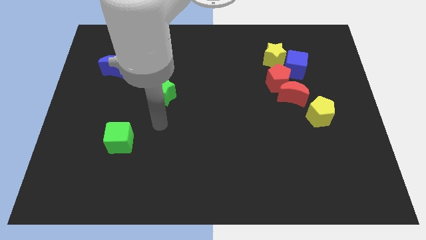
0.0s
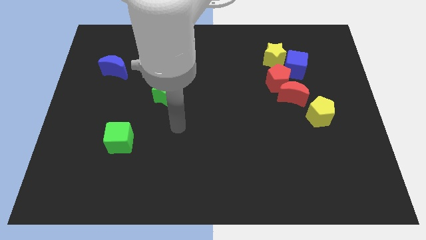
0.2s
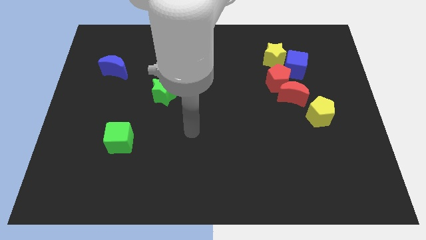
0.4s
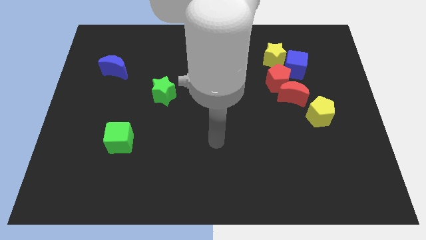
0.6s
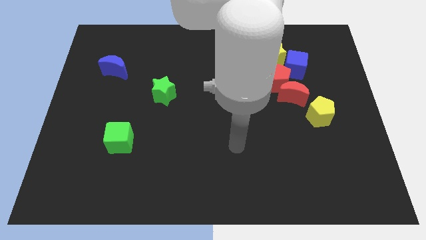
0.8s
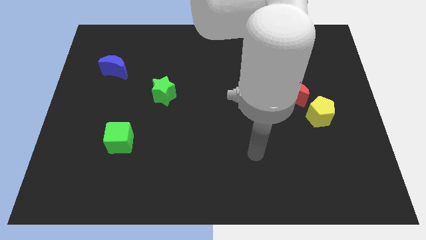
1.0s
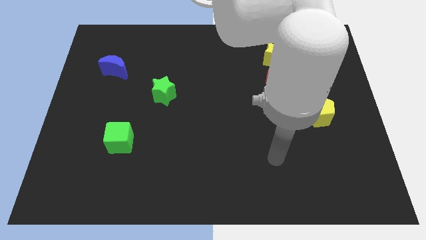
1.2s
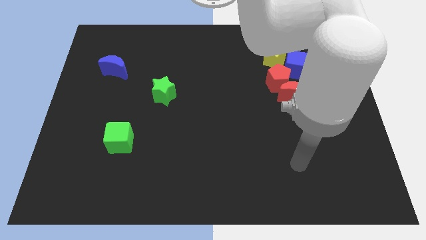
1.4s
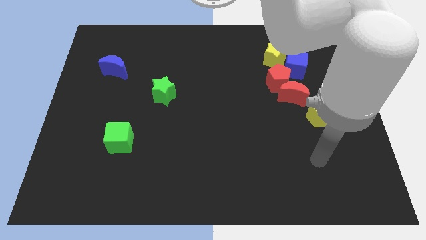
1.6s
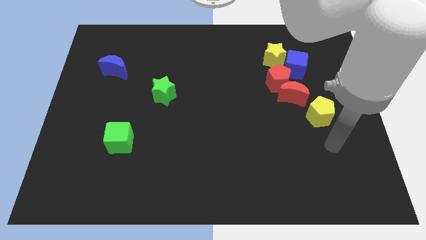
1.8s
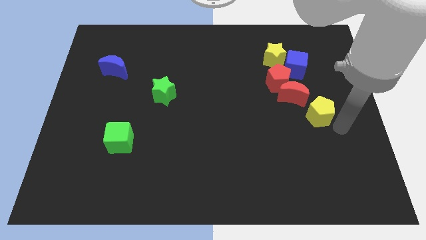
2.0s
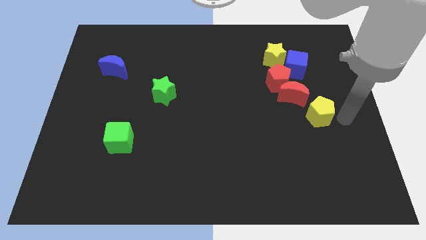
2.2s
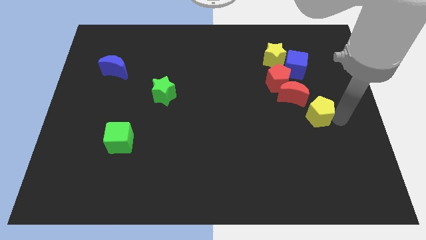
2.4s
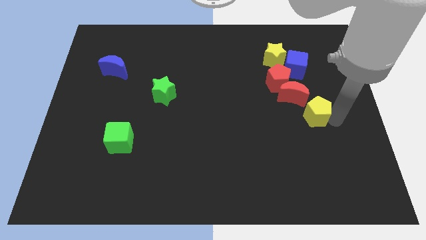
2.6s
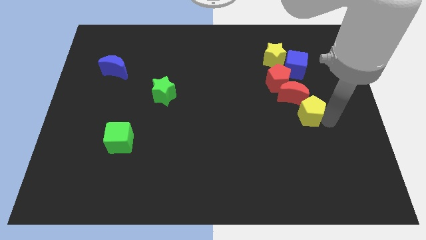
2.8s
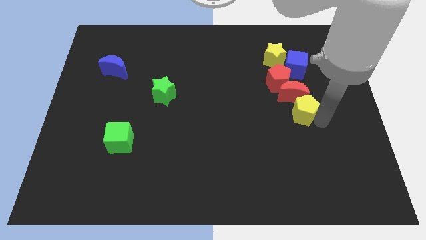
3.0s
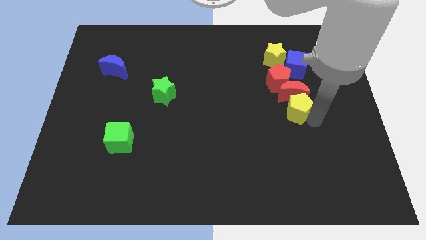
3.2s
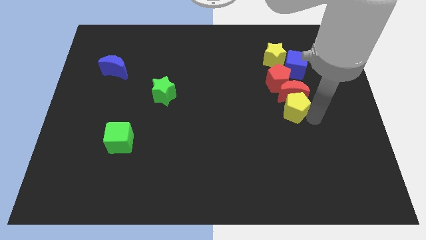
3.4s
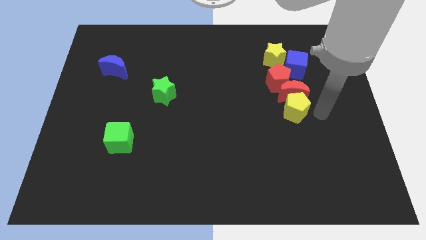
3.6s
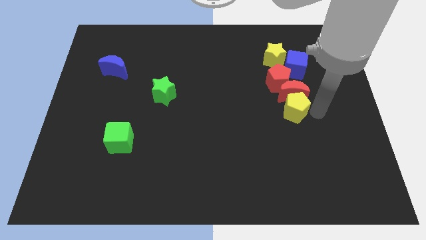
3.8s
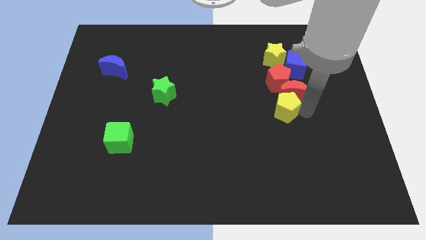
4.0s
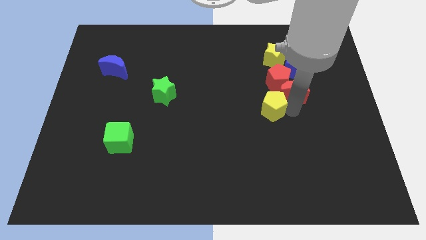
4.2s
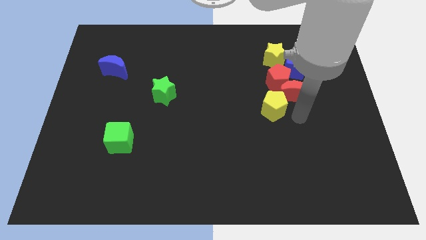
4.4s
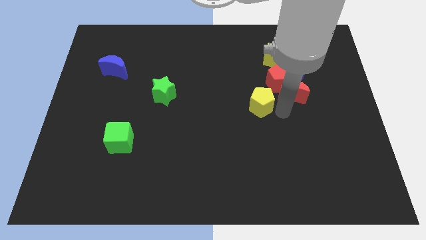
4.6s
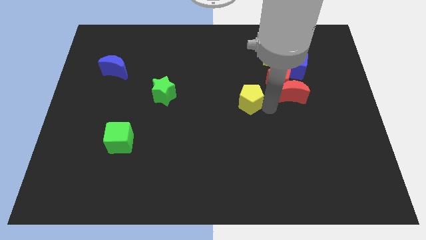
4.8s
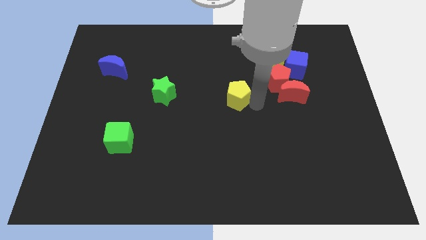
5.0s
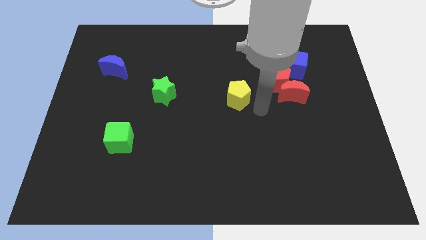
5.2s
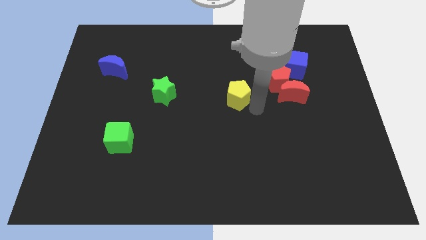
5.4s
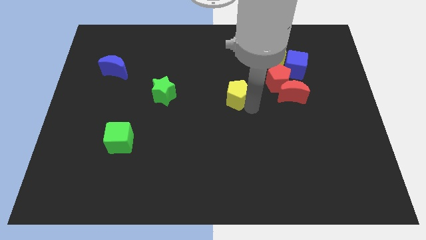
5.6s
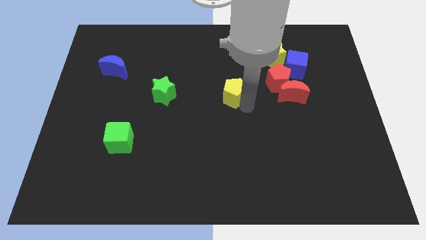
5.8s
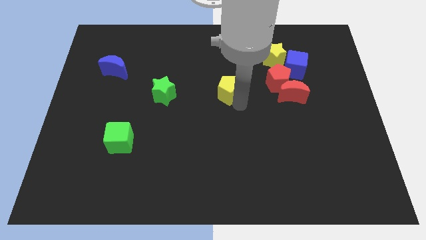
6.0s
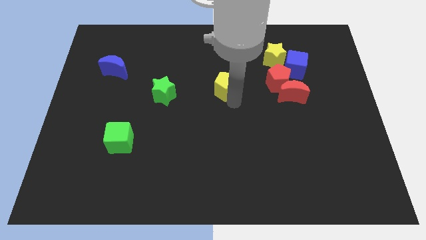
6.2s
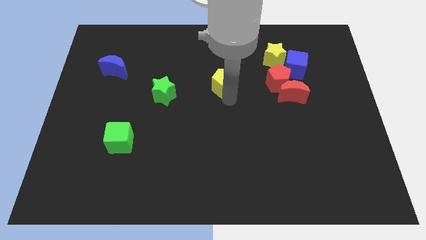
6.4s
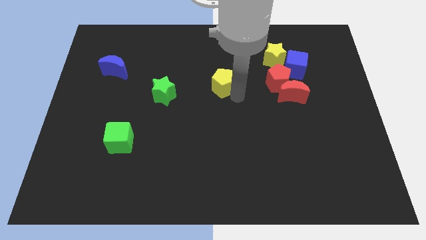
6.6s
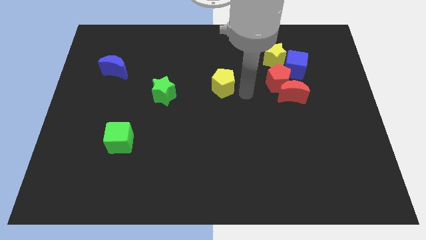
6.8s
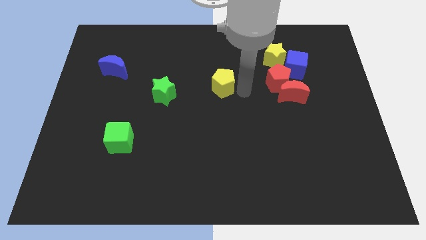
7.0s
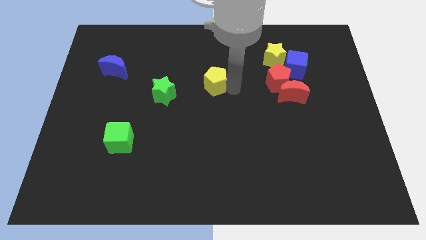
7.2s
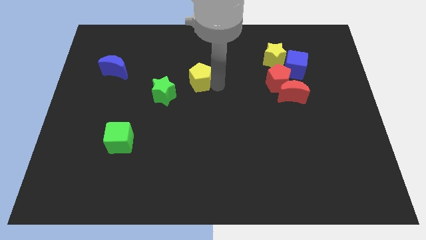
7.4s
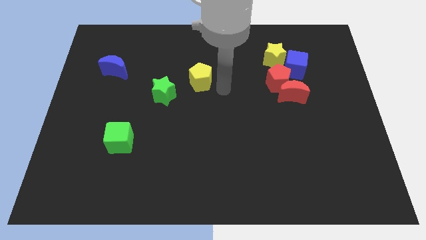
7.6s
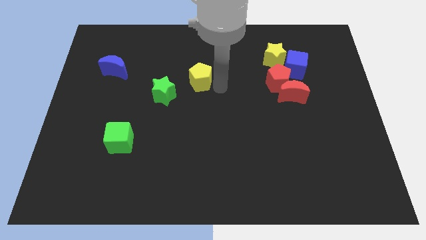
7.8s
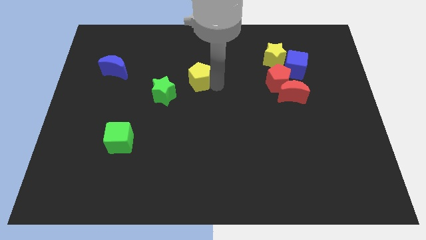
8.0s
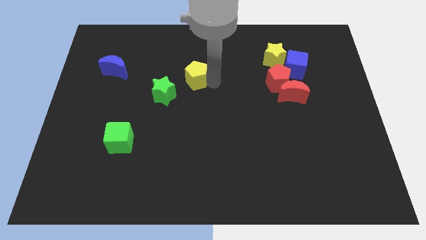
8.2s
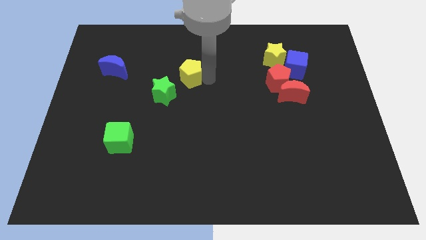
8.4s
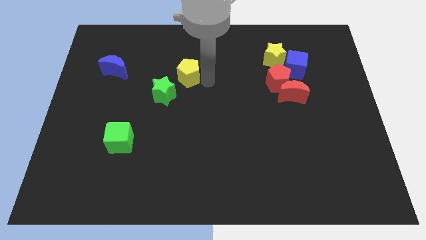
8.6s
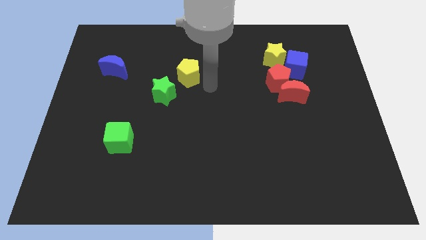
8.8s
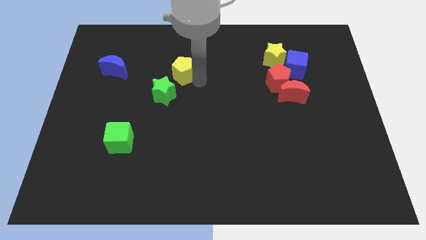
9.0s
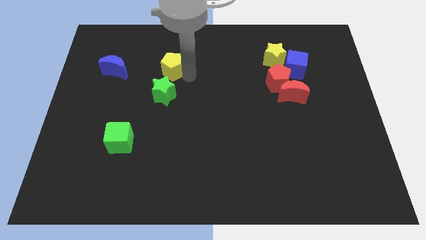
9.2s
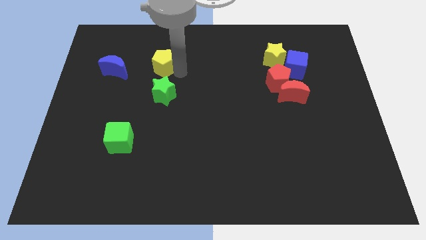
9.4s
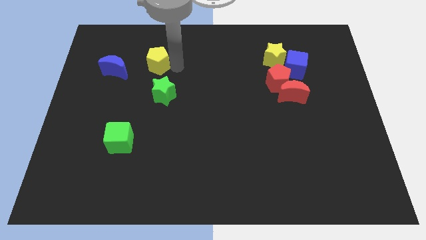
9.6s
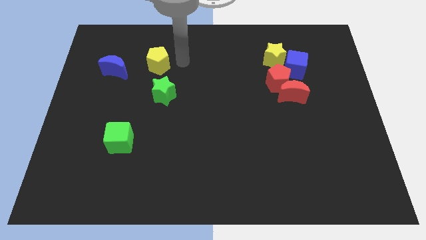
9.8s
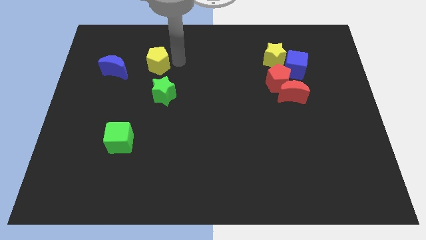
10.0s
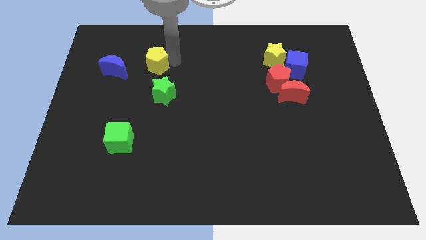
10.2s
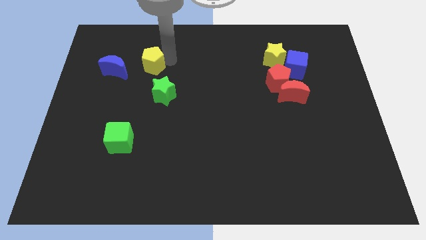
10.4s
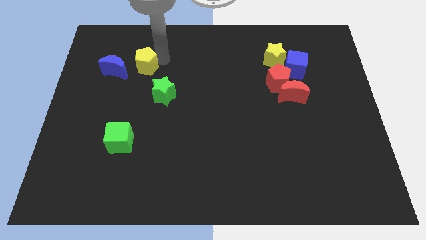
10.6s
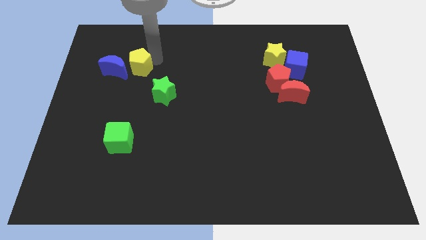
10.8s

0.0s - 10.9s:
move the yellow pentagon to the blue moon

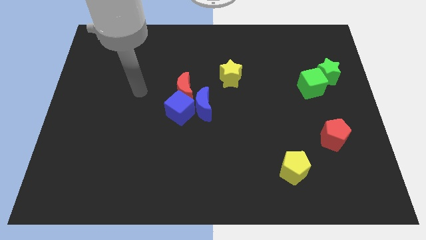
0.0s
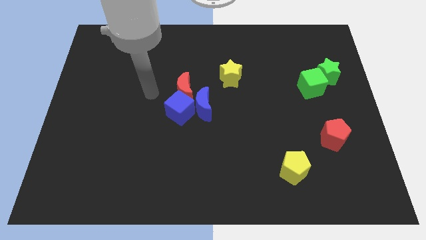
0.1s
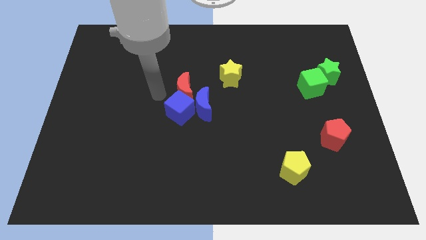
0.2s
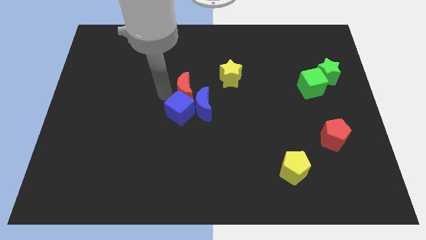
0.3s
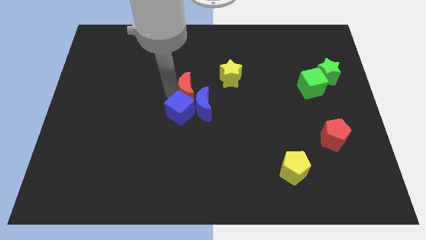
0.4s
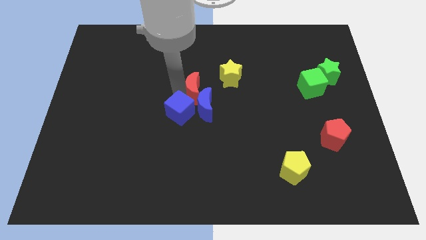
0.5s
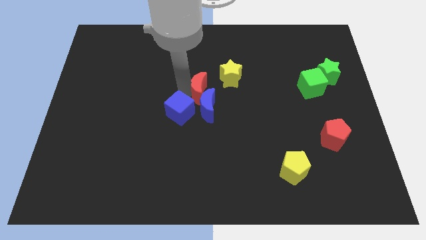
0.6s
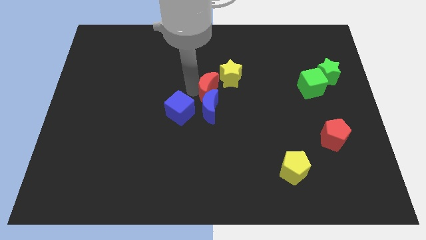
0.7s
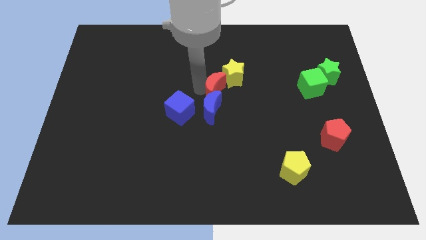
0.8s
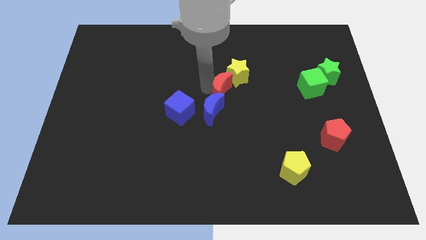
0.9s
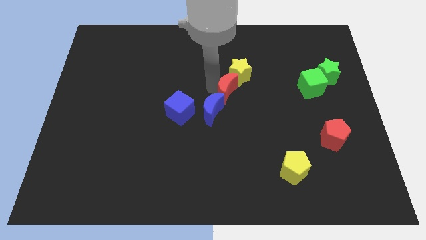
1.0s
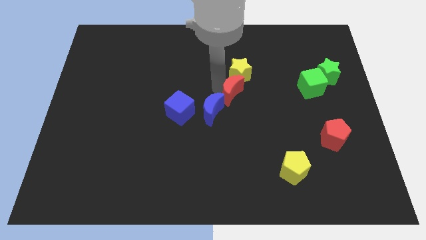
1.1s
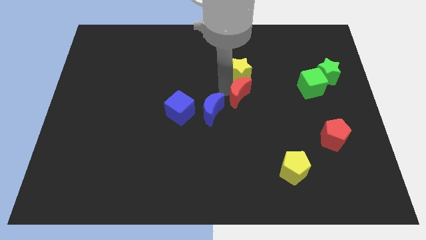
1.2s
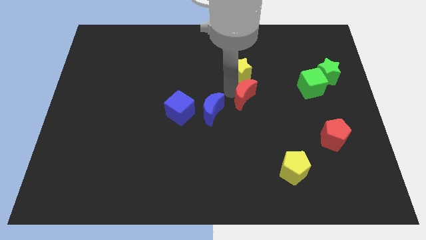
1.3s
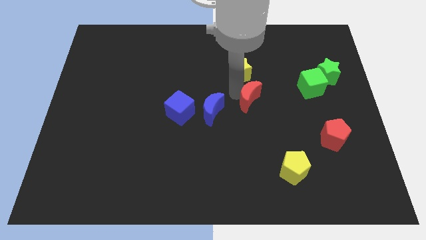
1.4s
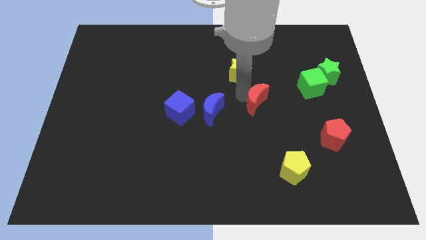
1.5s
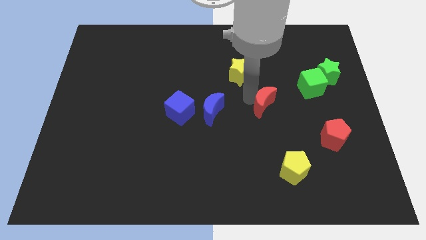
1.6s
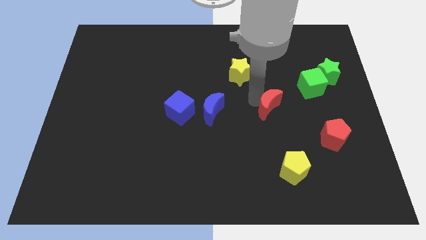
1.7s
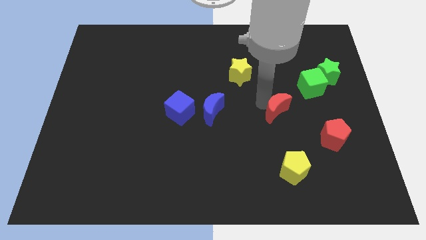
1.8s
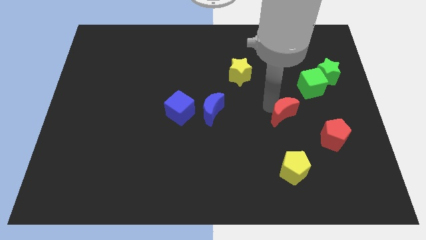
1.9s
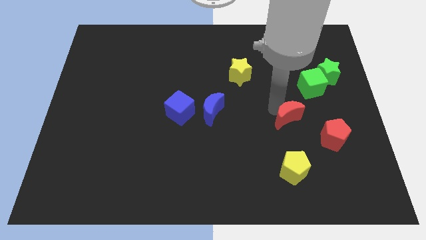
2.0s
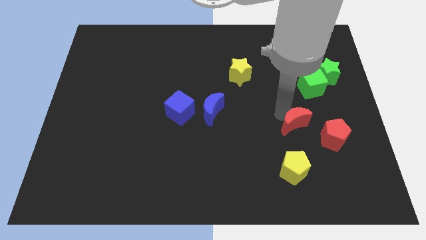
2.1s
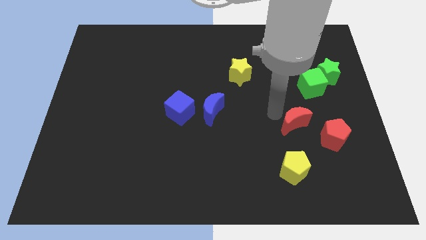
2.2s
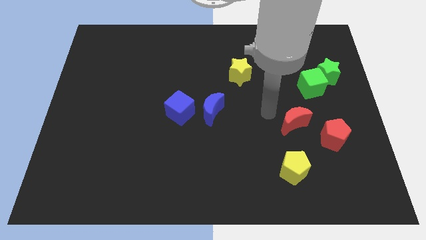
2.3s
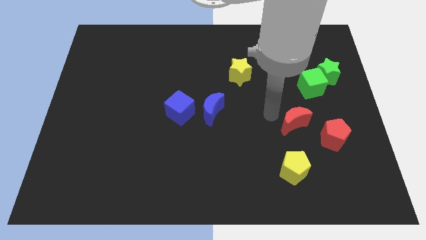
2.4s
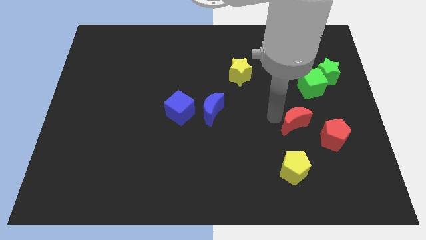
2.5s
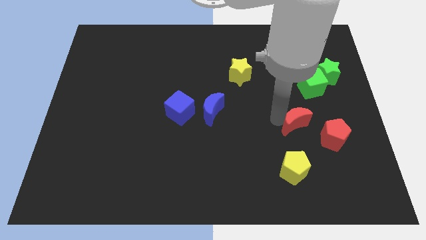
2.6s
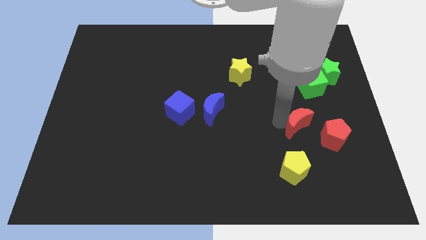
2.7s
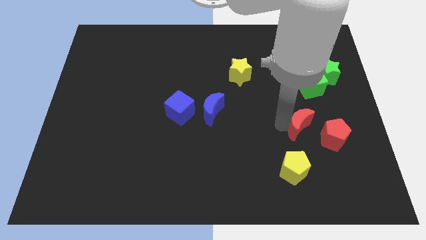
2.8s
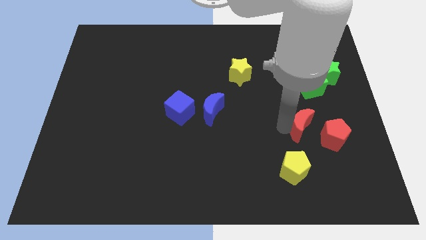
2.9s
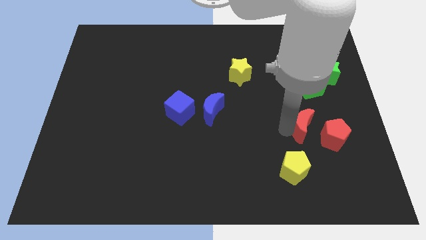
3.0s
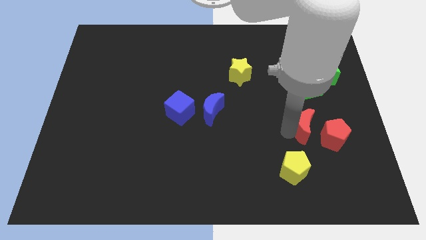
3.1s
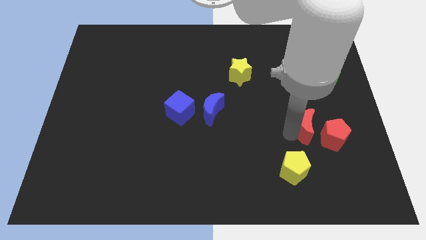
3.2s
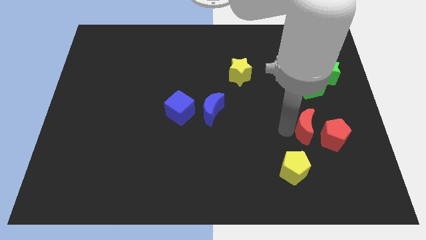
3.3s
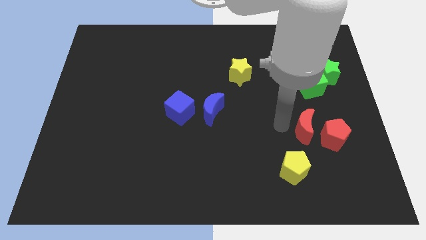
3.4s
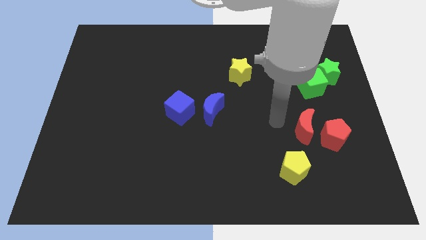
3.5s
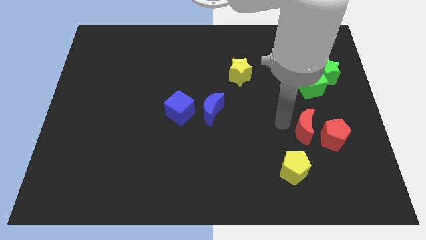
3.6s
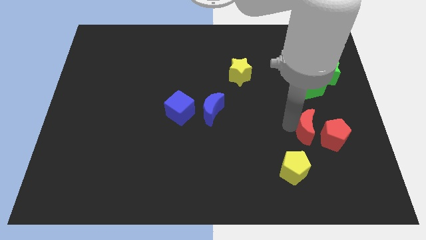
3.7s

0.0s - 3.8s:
put the red moon next to the red pentagon
